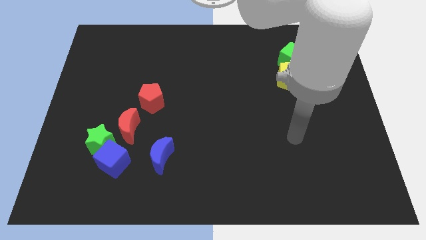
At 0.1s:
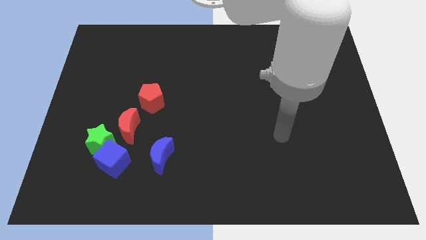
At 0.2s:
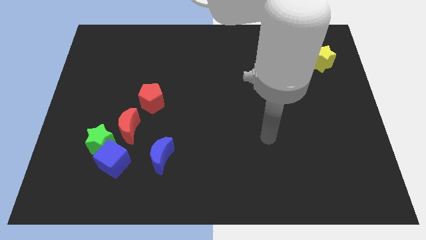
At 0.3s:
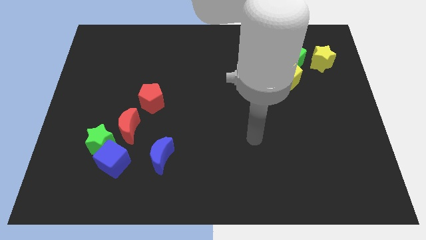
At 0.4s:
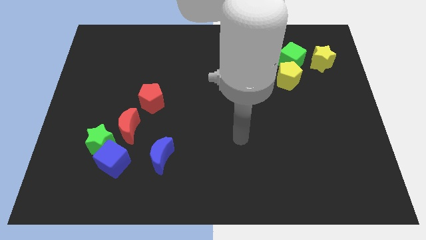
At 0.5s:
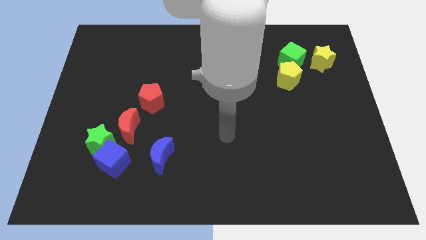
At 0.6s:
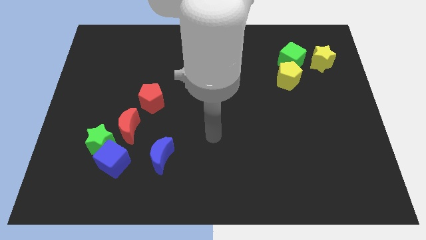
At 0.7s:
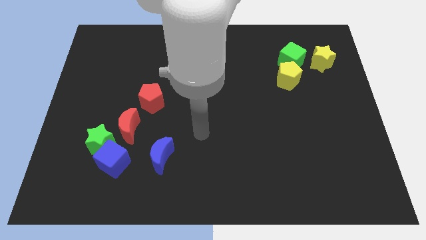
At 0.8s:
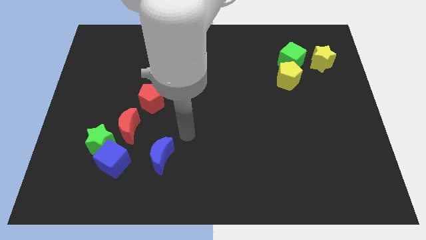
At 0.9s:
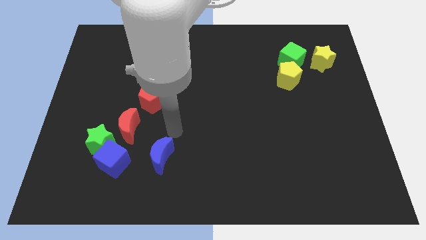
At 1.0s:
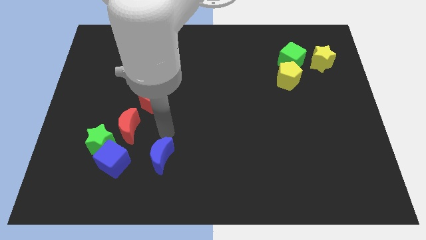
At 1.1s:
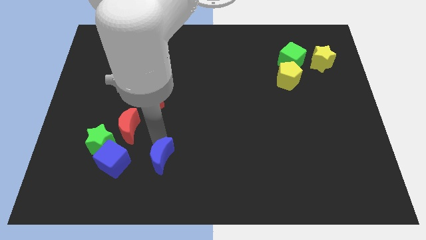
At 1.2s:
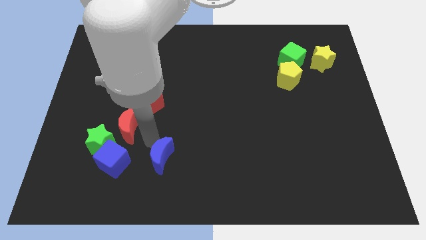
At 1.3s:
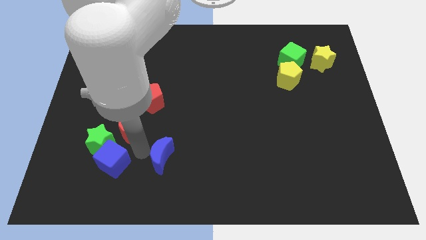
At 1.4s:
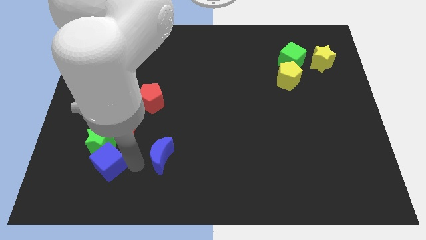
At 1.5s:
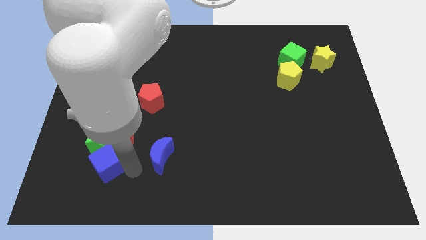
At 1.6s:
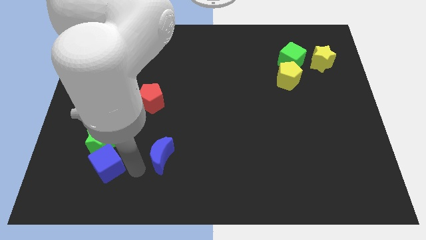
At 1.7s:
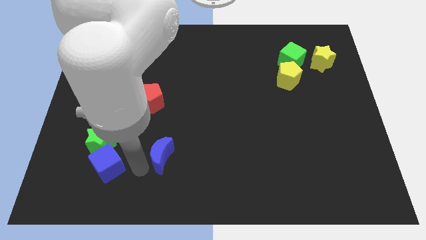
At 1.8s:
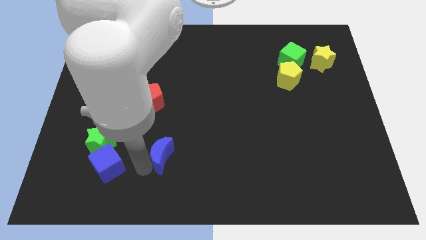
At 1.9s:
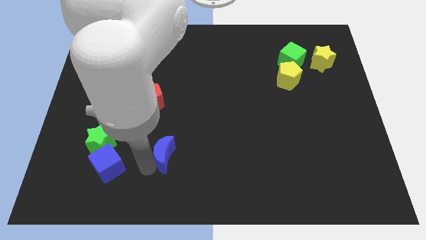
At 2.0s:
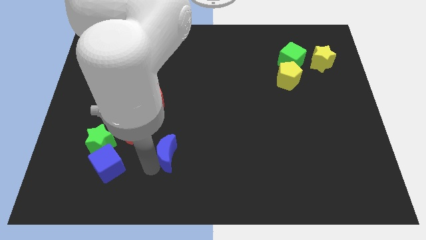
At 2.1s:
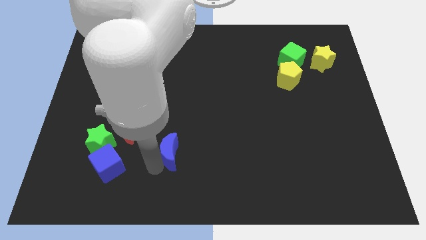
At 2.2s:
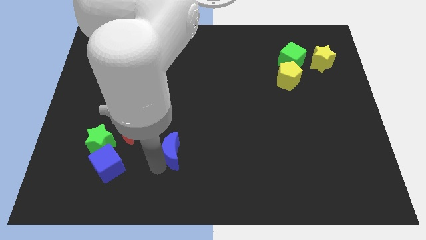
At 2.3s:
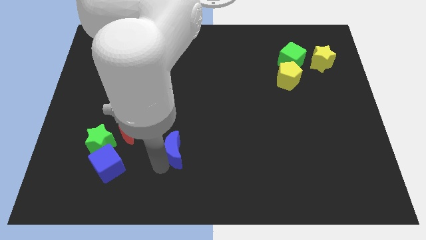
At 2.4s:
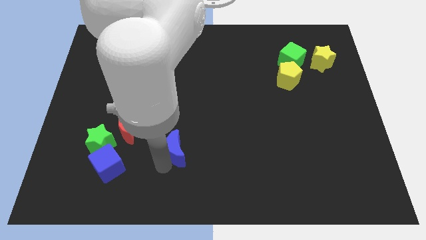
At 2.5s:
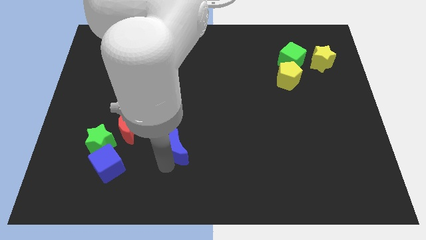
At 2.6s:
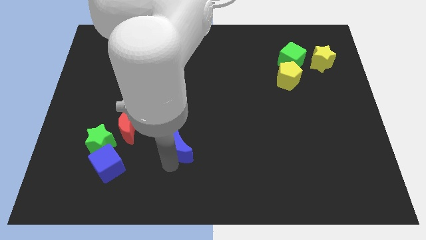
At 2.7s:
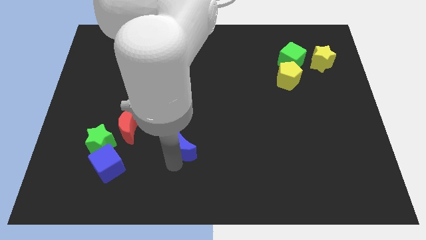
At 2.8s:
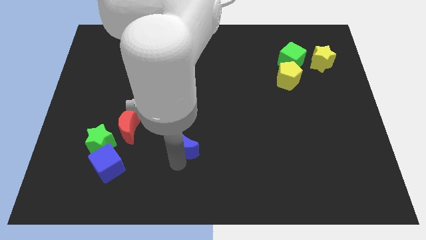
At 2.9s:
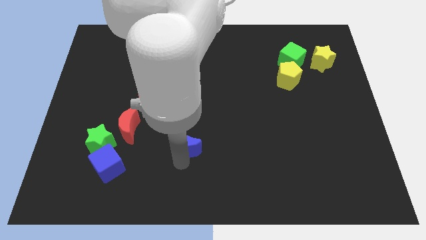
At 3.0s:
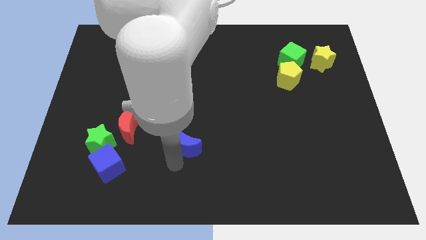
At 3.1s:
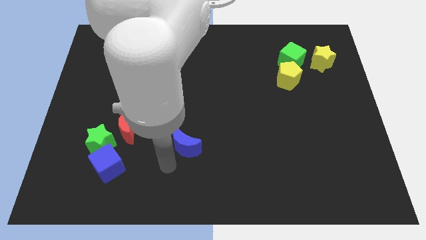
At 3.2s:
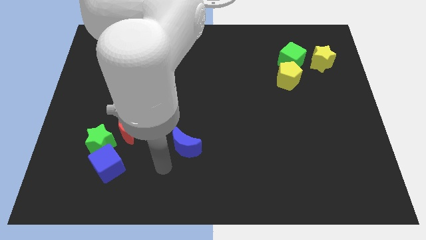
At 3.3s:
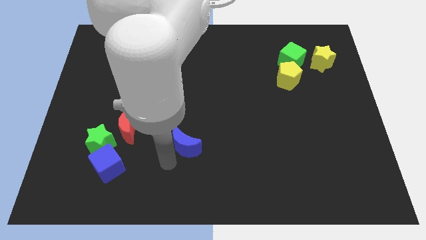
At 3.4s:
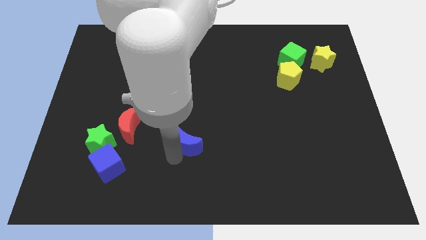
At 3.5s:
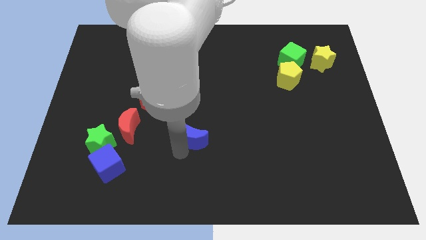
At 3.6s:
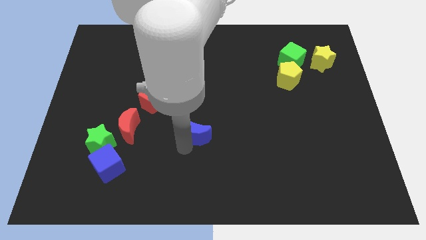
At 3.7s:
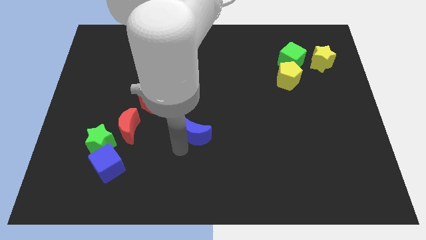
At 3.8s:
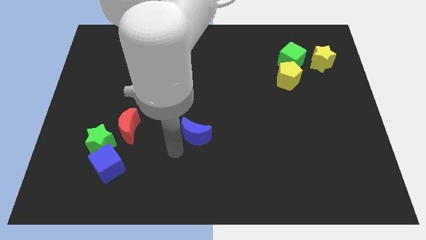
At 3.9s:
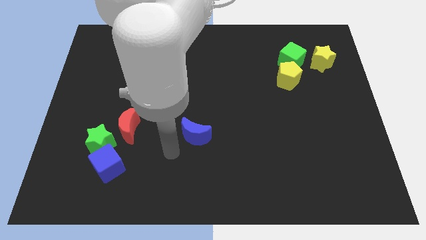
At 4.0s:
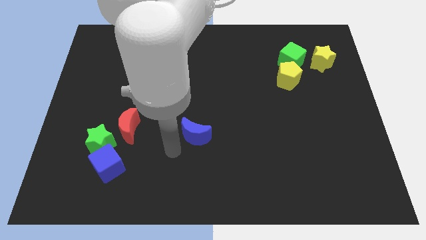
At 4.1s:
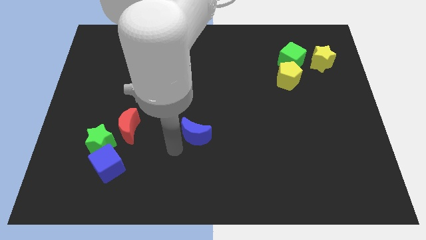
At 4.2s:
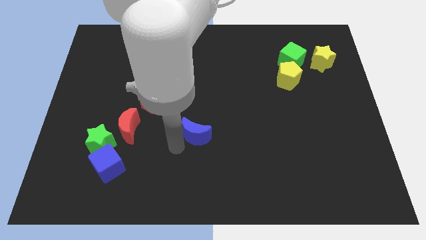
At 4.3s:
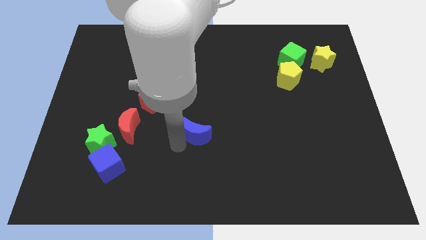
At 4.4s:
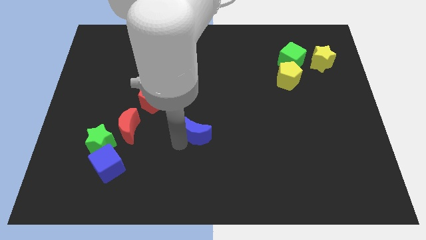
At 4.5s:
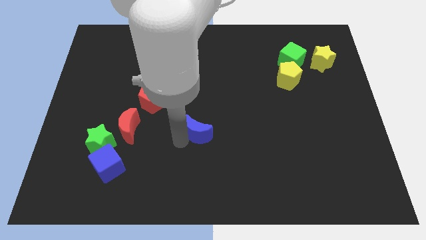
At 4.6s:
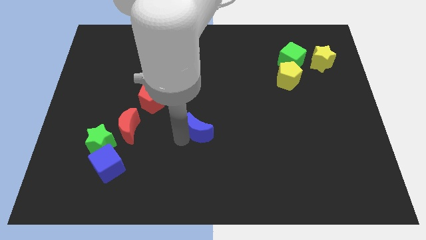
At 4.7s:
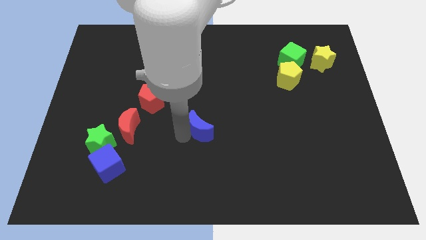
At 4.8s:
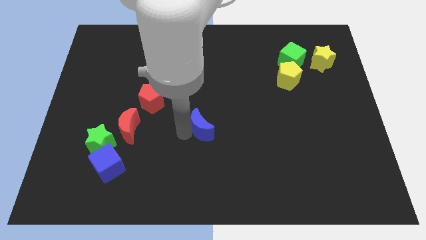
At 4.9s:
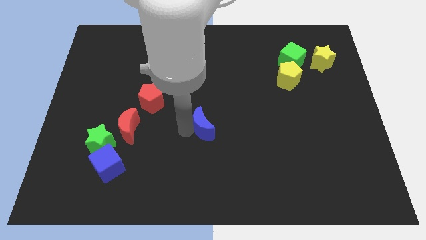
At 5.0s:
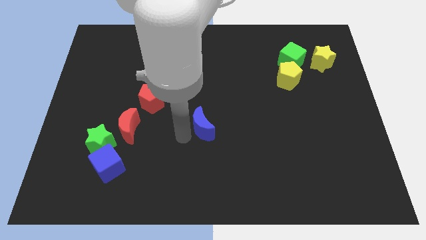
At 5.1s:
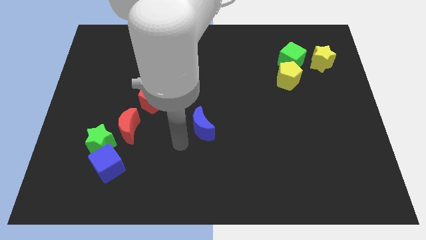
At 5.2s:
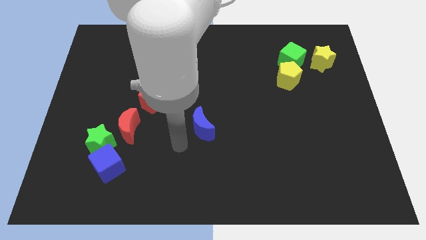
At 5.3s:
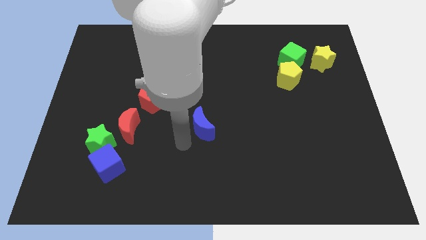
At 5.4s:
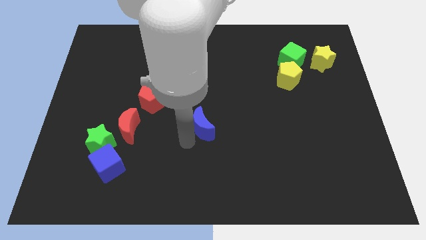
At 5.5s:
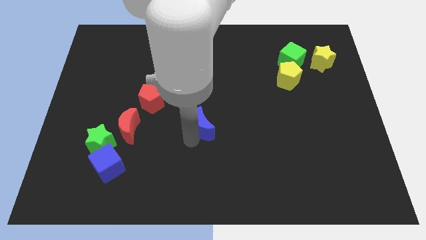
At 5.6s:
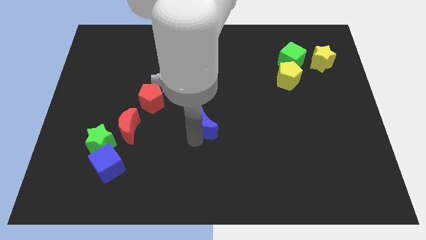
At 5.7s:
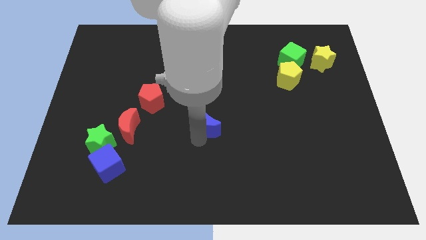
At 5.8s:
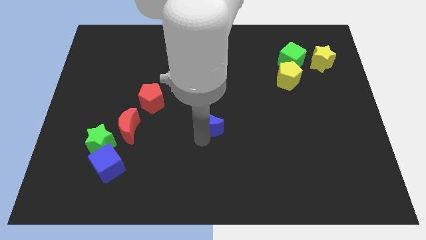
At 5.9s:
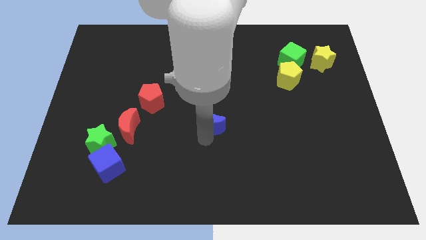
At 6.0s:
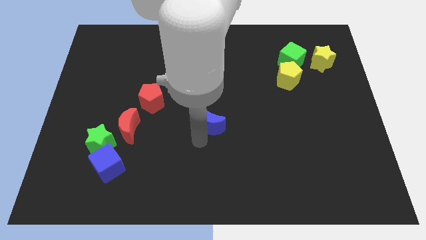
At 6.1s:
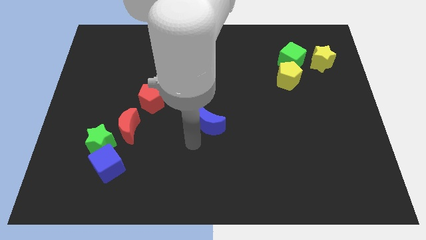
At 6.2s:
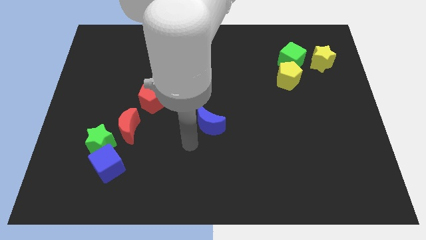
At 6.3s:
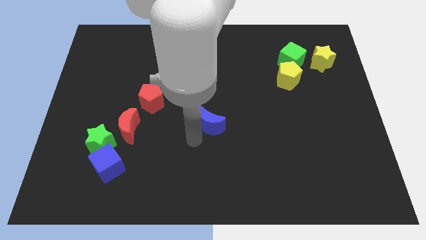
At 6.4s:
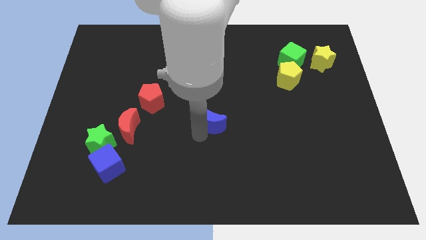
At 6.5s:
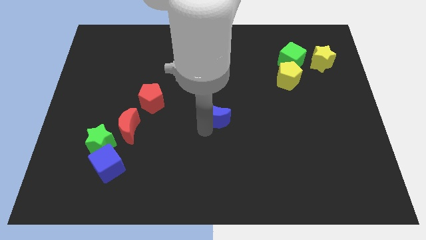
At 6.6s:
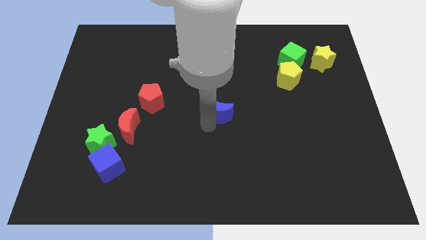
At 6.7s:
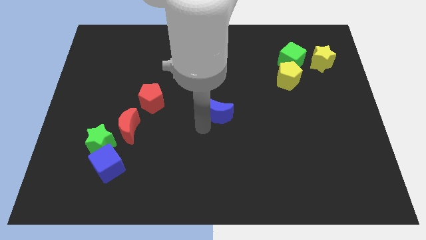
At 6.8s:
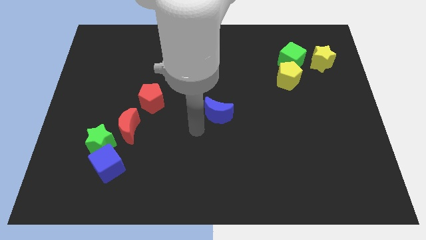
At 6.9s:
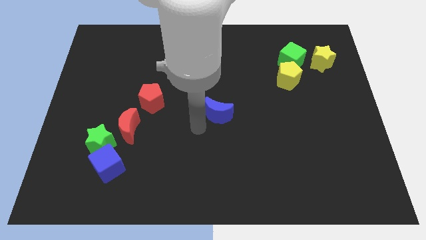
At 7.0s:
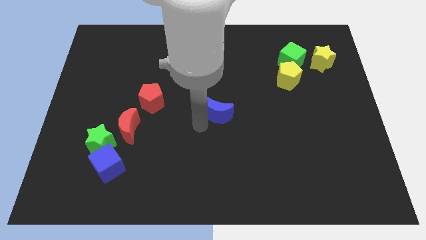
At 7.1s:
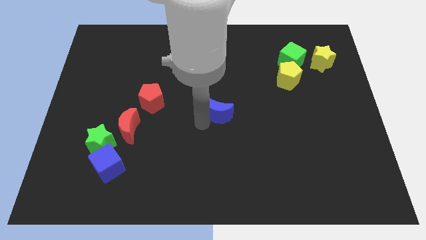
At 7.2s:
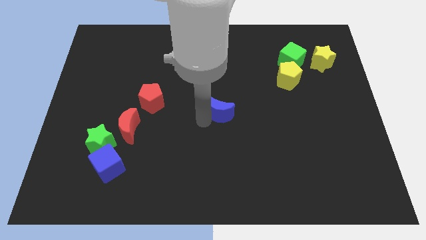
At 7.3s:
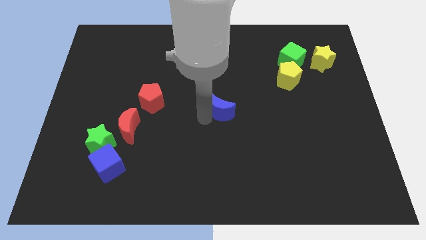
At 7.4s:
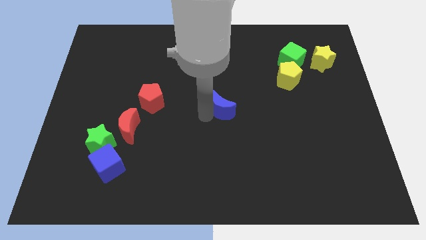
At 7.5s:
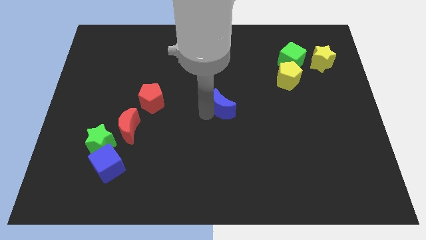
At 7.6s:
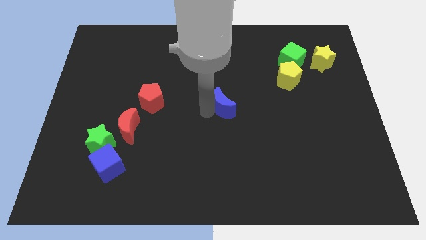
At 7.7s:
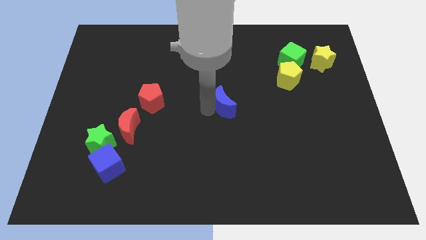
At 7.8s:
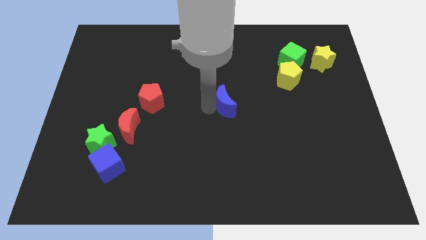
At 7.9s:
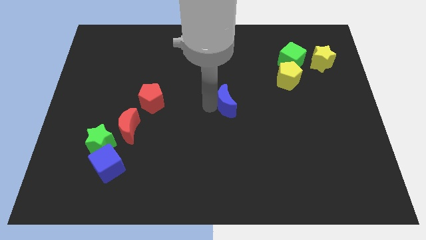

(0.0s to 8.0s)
move the blue moon up and then right

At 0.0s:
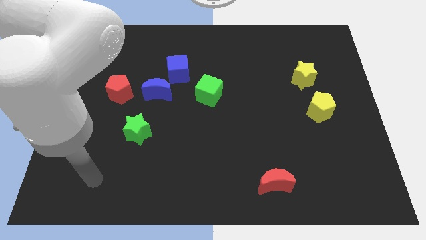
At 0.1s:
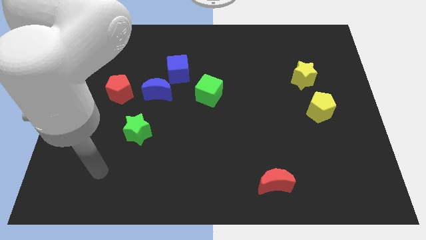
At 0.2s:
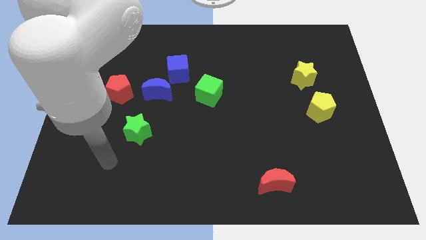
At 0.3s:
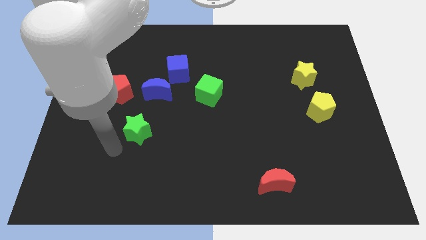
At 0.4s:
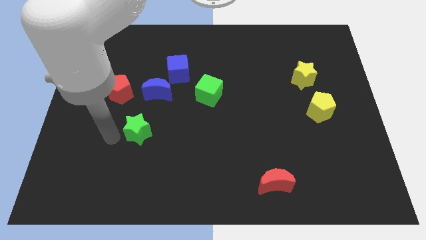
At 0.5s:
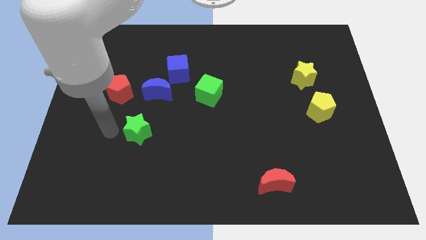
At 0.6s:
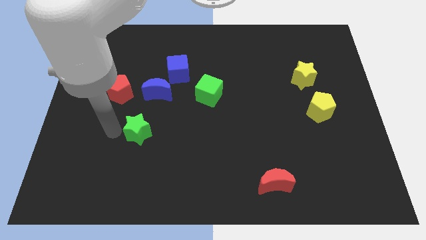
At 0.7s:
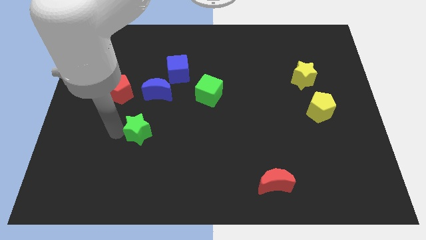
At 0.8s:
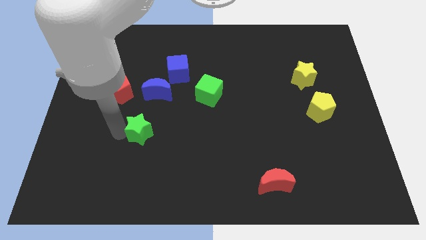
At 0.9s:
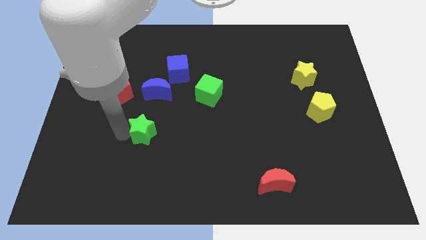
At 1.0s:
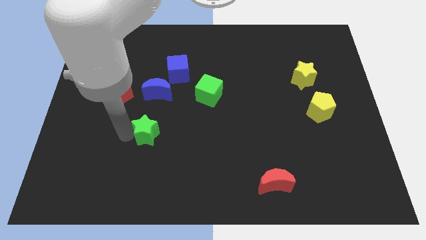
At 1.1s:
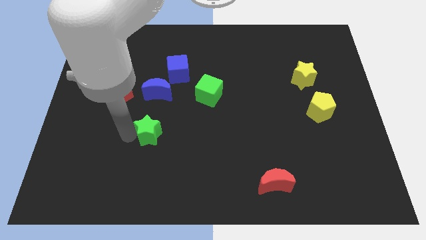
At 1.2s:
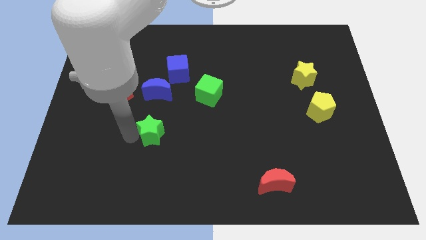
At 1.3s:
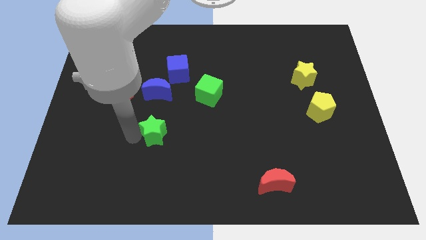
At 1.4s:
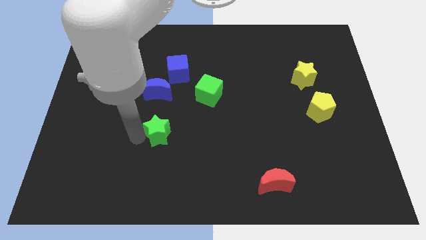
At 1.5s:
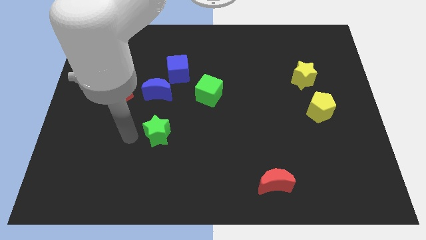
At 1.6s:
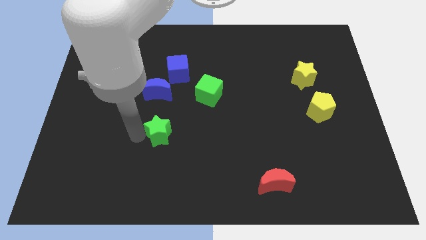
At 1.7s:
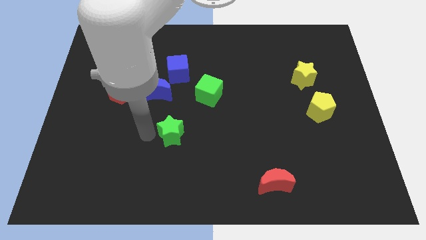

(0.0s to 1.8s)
move the green star a little right
